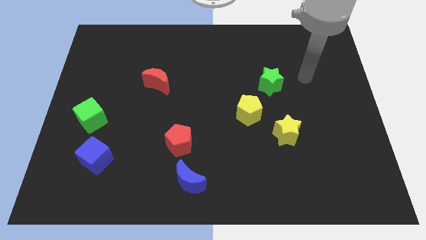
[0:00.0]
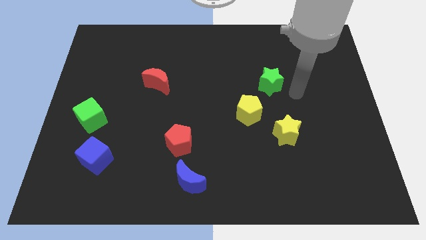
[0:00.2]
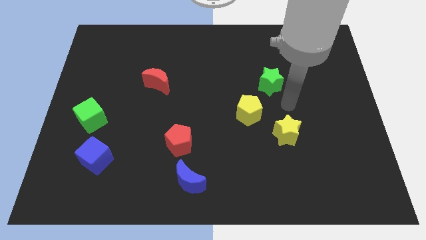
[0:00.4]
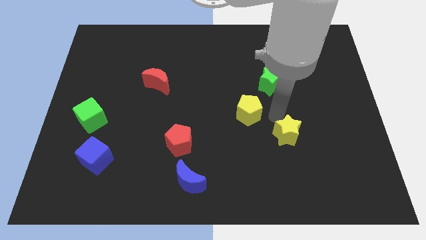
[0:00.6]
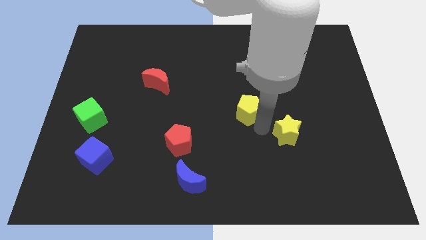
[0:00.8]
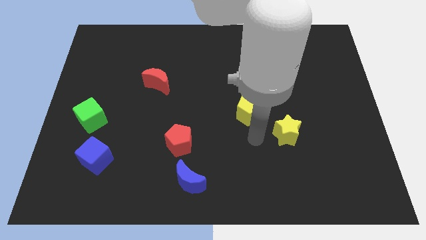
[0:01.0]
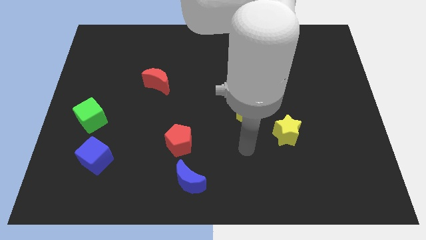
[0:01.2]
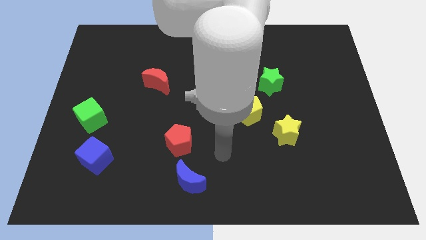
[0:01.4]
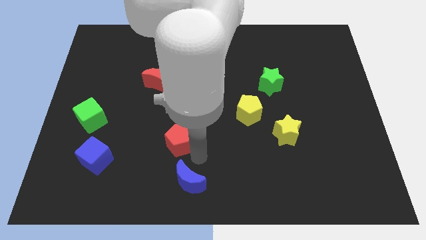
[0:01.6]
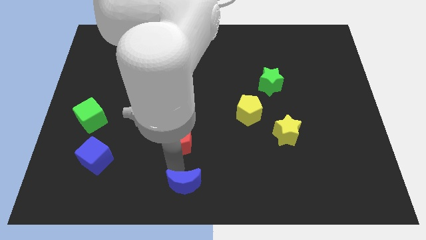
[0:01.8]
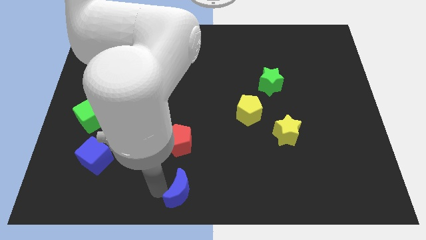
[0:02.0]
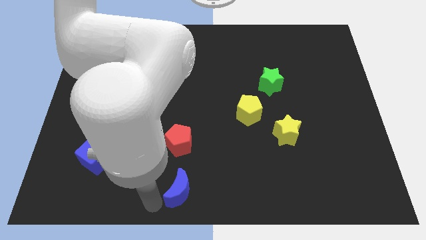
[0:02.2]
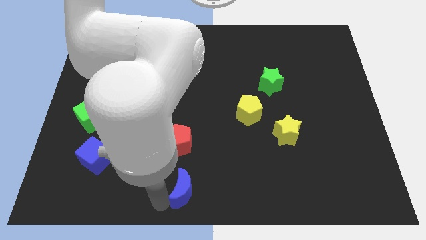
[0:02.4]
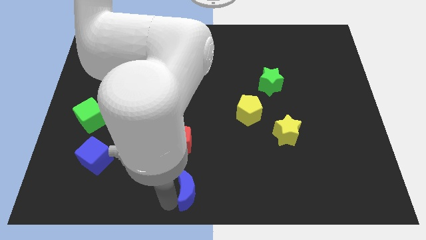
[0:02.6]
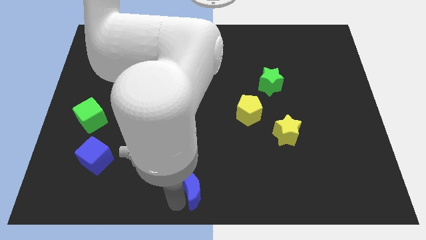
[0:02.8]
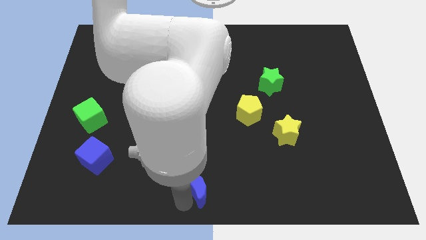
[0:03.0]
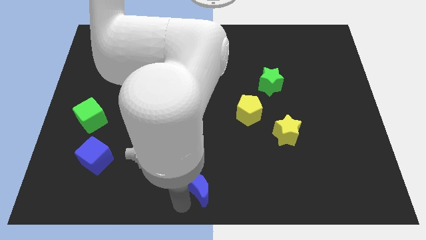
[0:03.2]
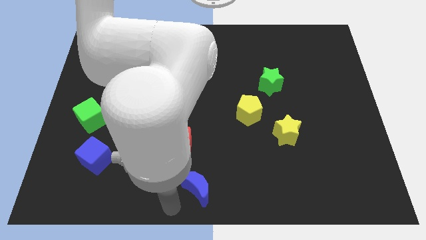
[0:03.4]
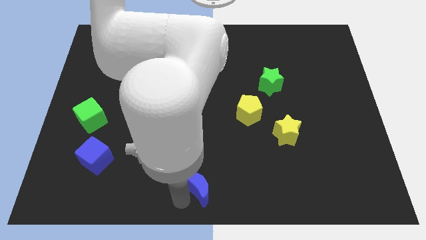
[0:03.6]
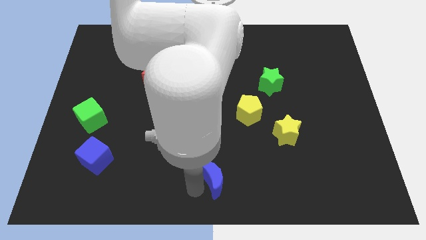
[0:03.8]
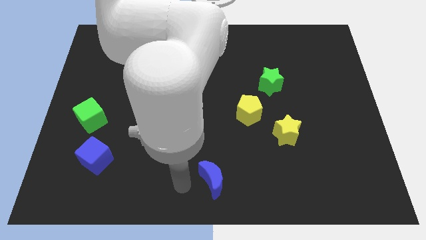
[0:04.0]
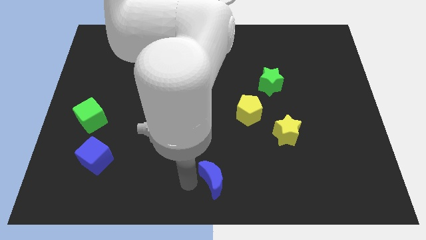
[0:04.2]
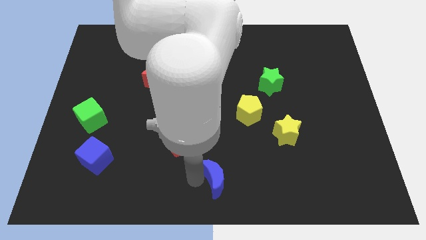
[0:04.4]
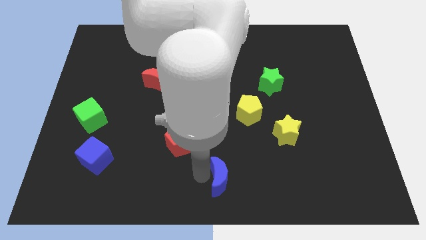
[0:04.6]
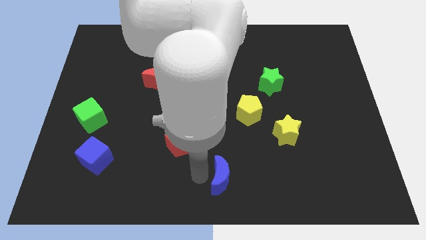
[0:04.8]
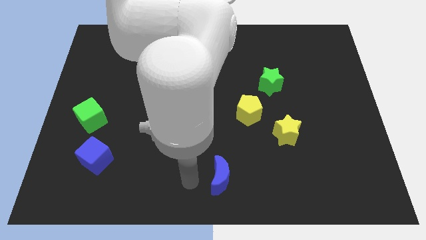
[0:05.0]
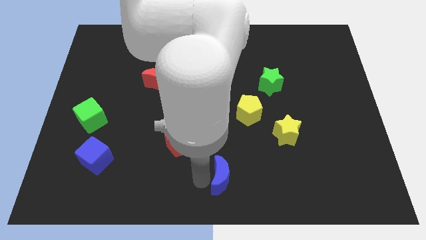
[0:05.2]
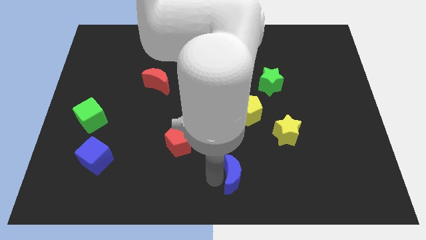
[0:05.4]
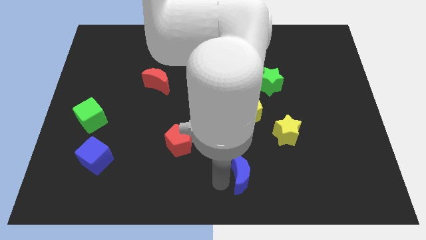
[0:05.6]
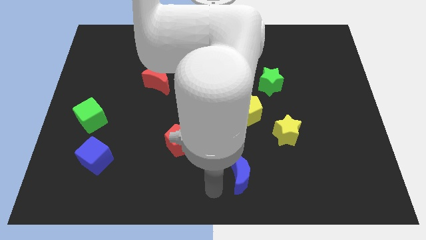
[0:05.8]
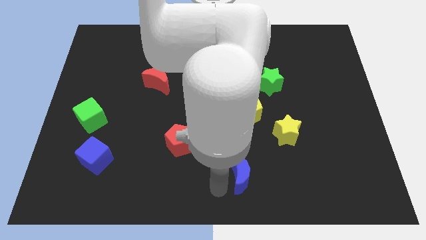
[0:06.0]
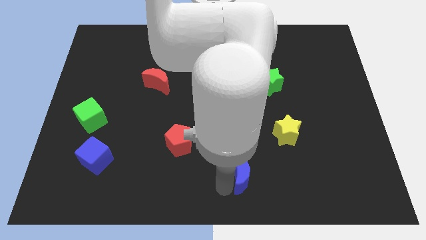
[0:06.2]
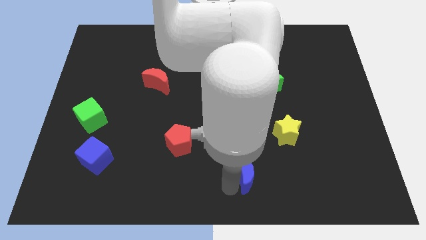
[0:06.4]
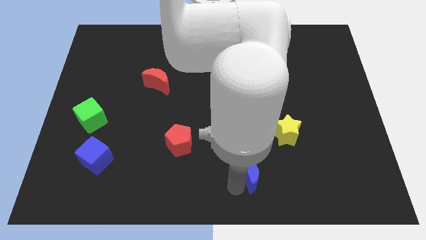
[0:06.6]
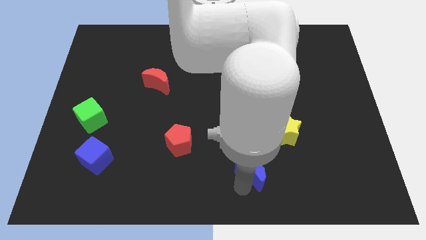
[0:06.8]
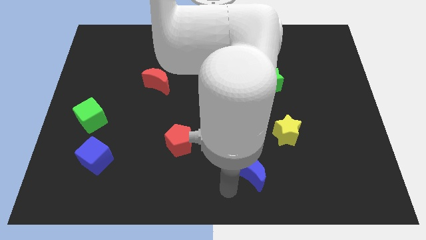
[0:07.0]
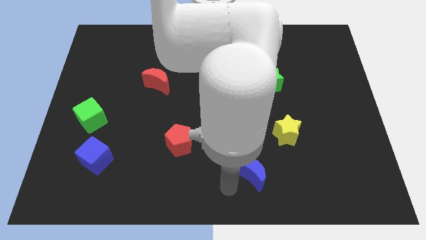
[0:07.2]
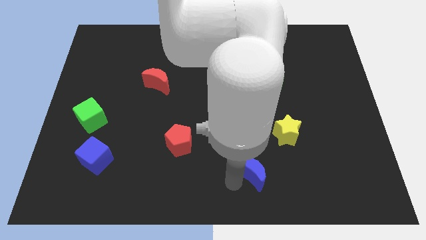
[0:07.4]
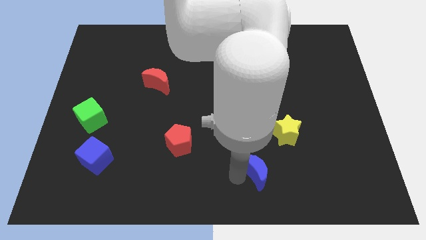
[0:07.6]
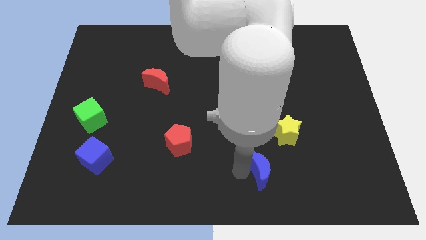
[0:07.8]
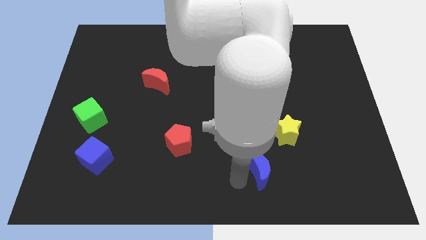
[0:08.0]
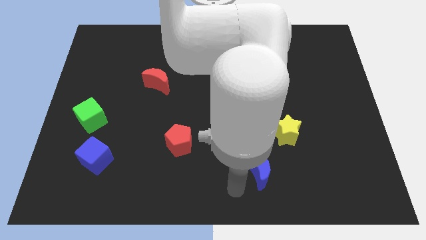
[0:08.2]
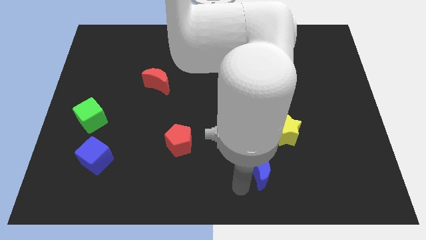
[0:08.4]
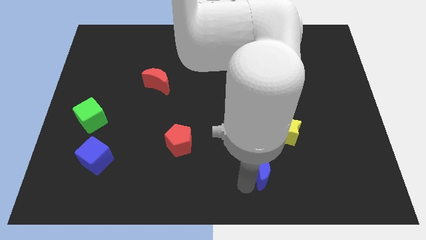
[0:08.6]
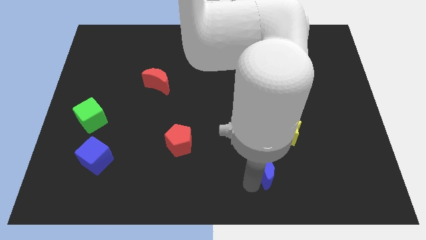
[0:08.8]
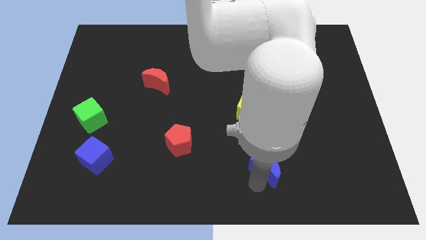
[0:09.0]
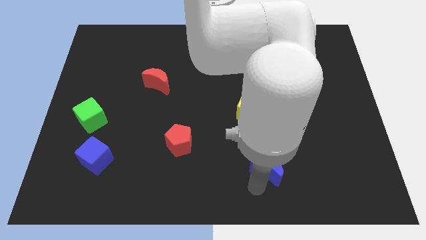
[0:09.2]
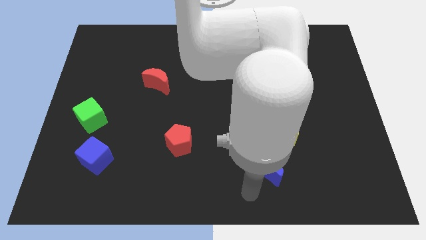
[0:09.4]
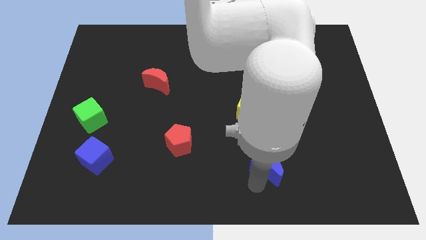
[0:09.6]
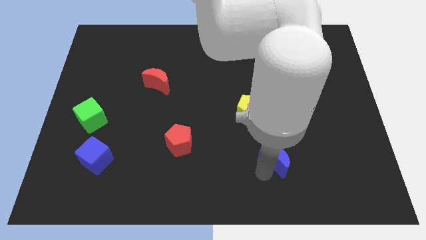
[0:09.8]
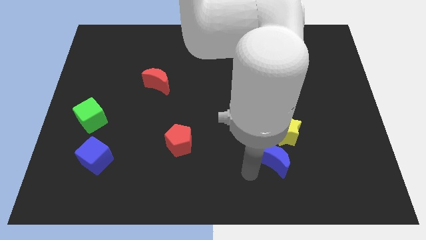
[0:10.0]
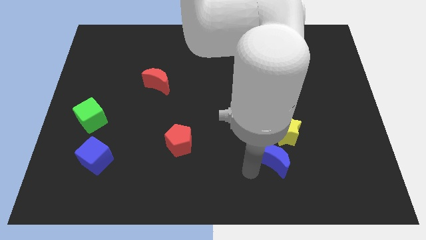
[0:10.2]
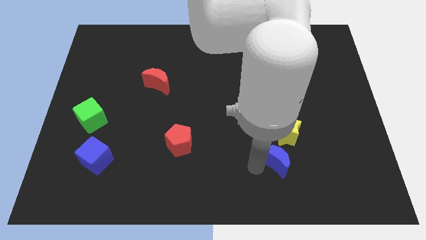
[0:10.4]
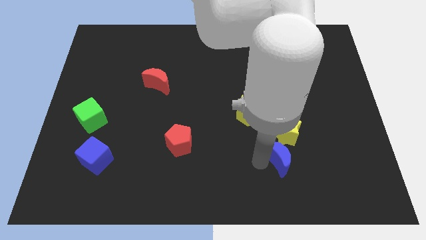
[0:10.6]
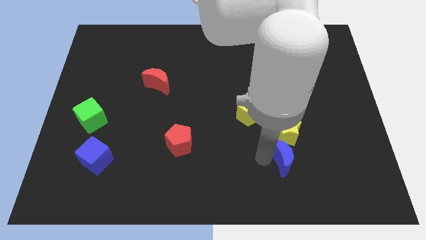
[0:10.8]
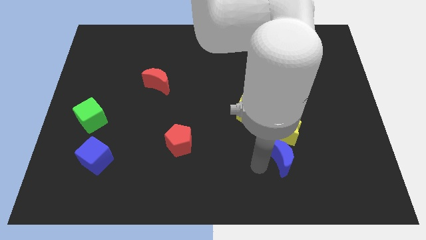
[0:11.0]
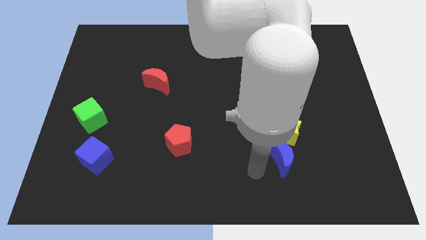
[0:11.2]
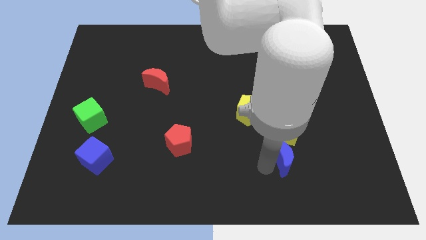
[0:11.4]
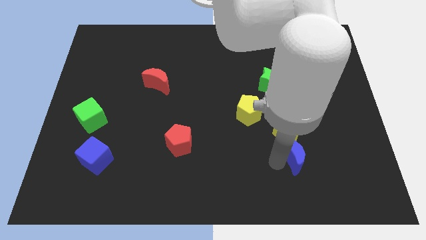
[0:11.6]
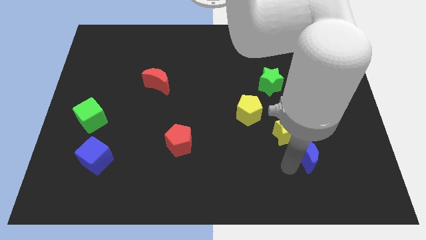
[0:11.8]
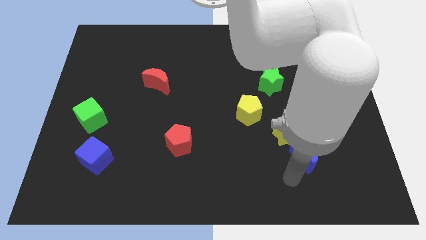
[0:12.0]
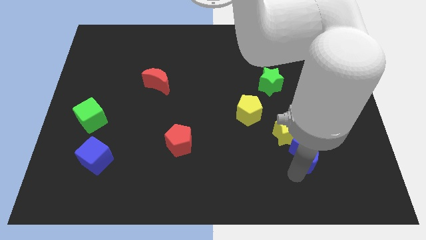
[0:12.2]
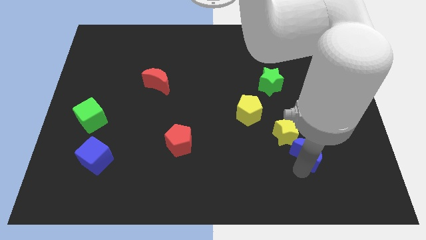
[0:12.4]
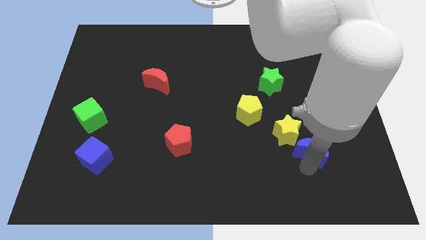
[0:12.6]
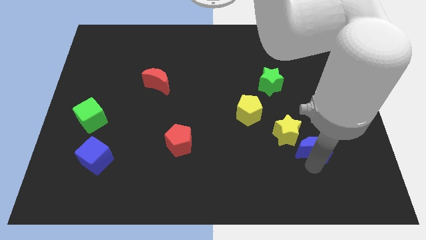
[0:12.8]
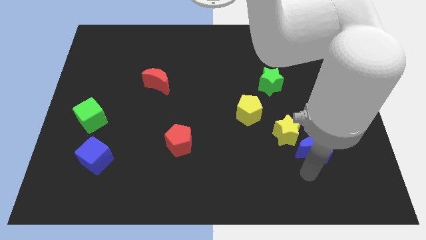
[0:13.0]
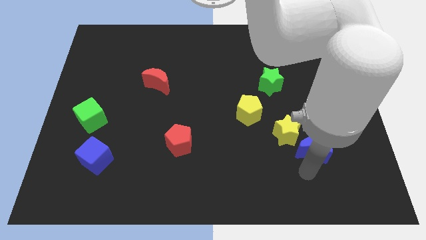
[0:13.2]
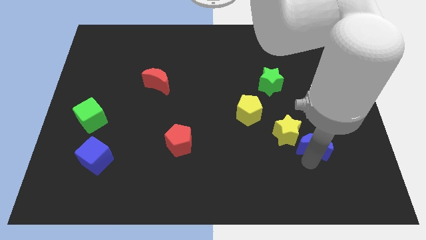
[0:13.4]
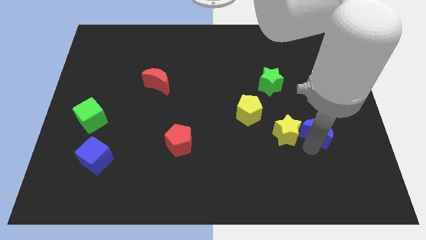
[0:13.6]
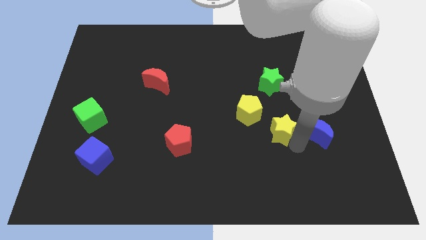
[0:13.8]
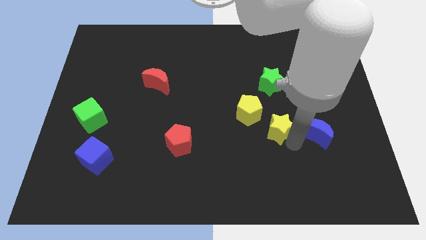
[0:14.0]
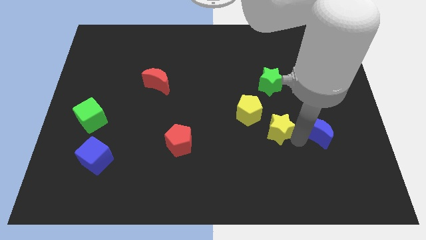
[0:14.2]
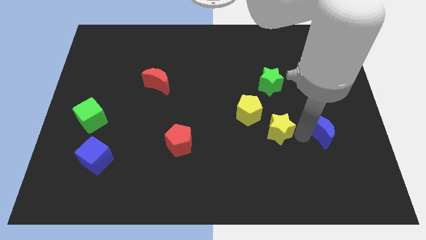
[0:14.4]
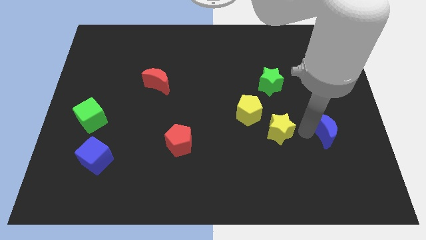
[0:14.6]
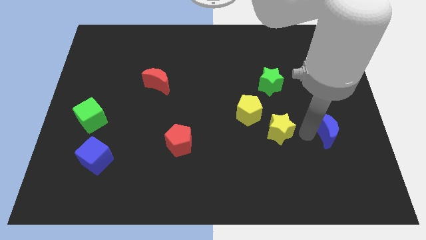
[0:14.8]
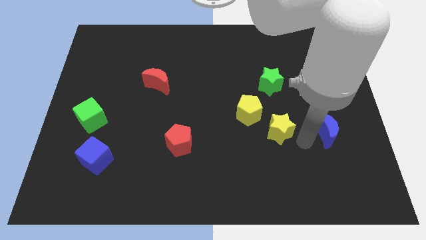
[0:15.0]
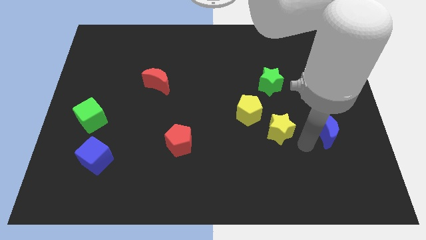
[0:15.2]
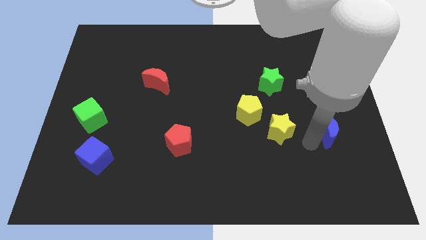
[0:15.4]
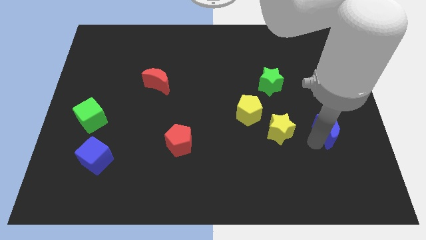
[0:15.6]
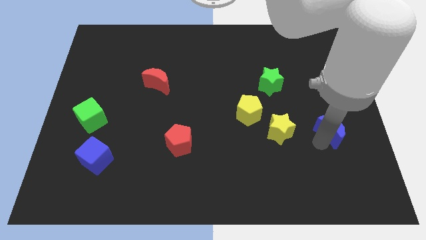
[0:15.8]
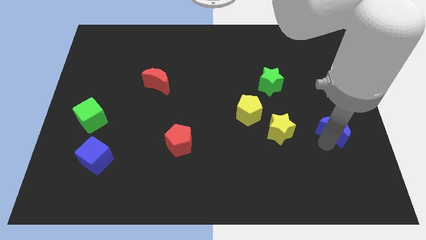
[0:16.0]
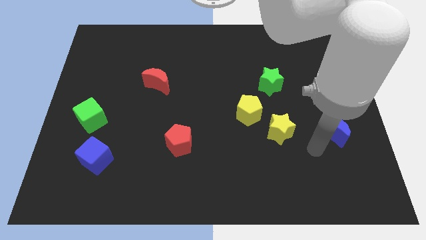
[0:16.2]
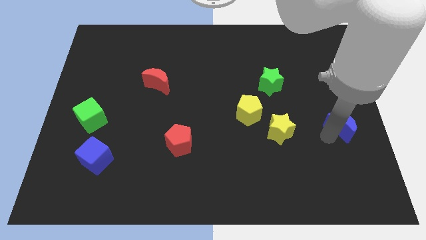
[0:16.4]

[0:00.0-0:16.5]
move the blue moon to the center right
